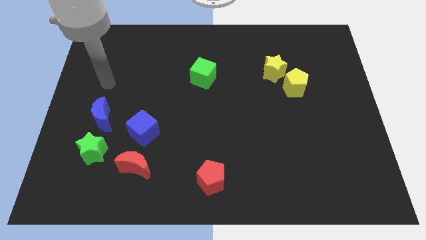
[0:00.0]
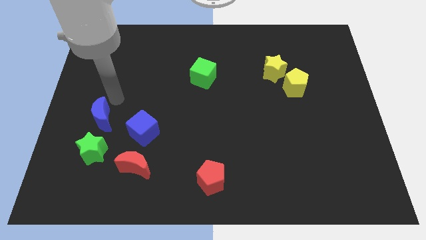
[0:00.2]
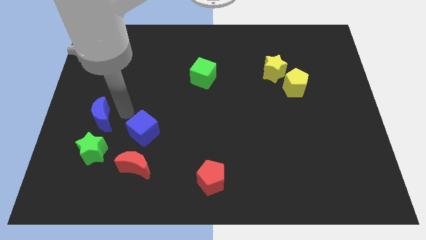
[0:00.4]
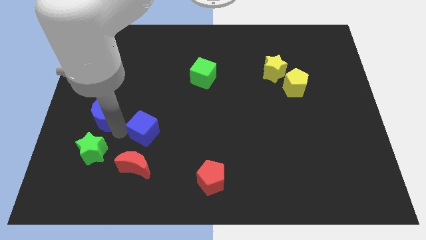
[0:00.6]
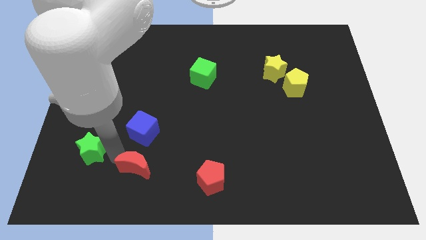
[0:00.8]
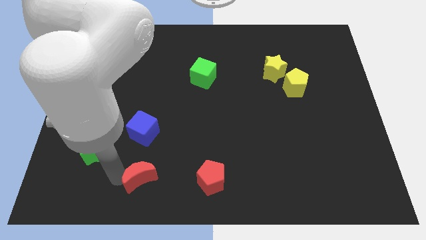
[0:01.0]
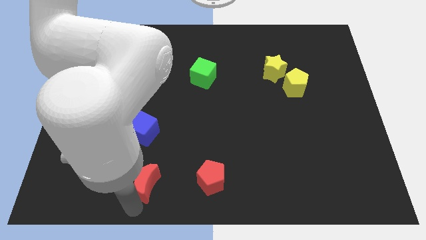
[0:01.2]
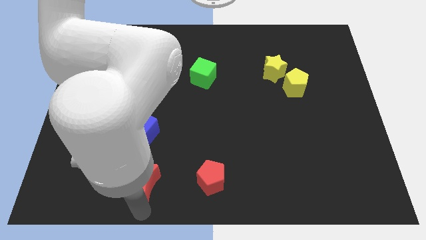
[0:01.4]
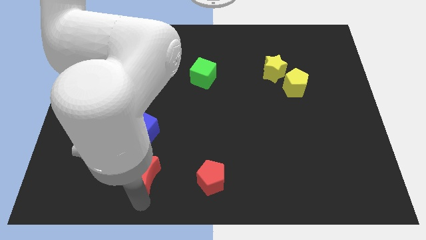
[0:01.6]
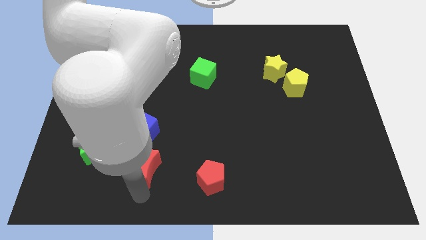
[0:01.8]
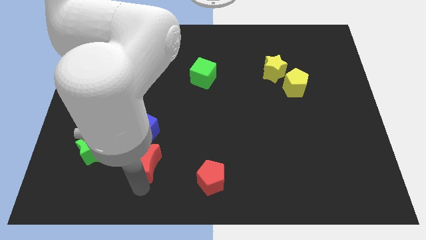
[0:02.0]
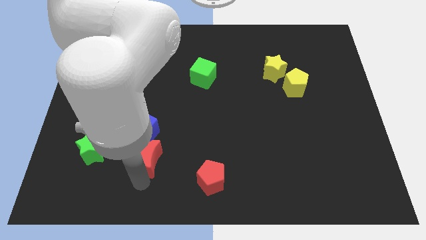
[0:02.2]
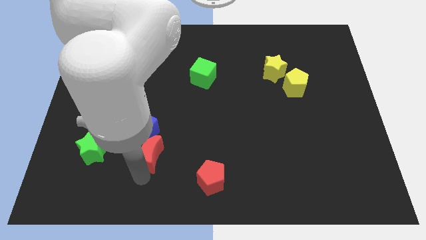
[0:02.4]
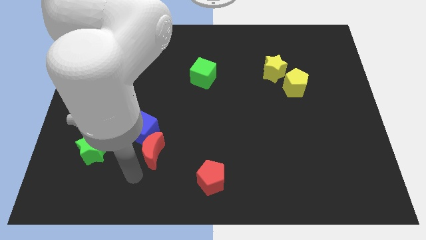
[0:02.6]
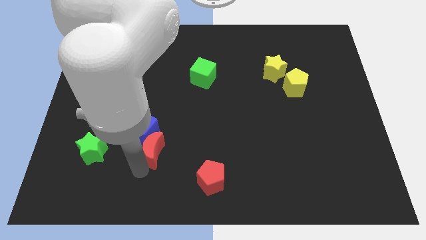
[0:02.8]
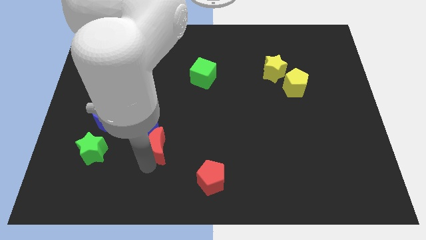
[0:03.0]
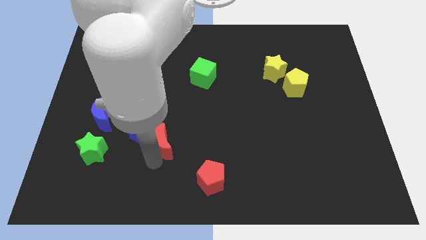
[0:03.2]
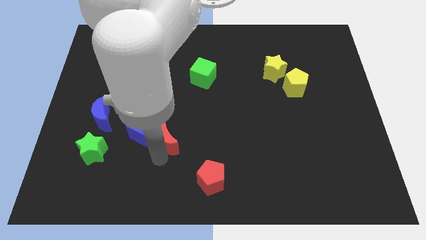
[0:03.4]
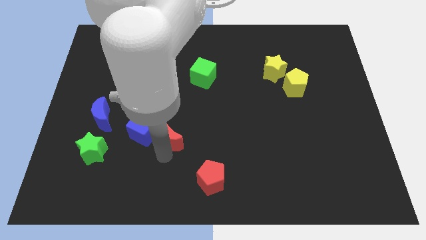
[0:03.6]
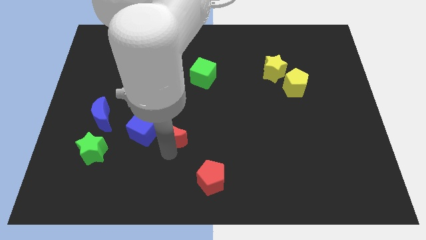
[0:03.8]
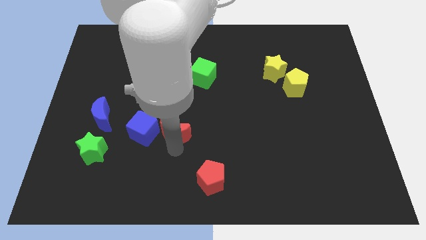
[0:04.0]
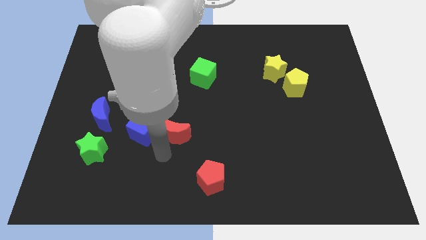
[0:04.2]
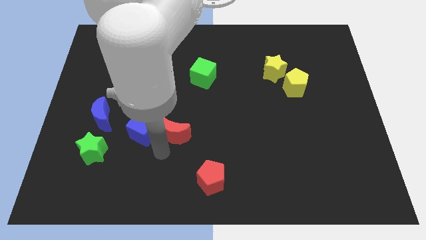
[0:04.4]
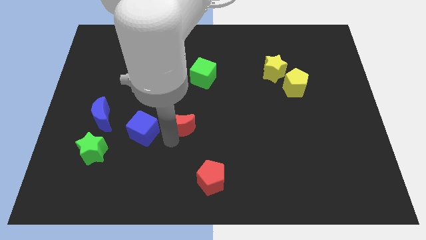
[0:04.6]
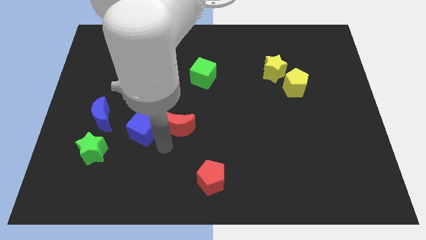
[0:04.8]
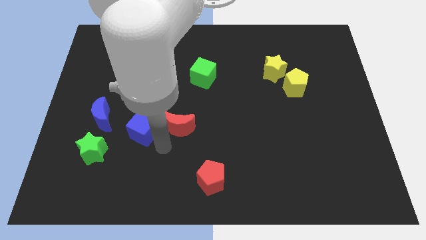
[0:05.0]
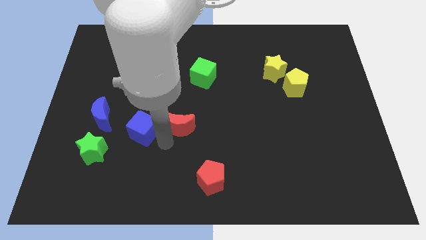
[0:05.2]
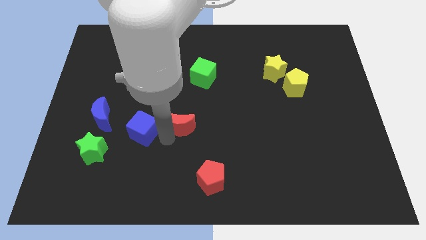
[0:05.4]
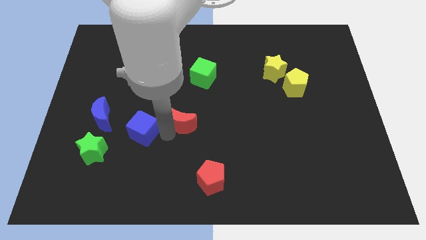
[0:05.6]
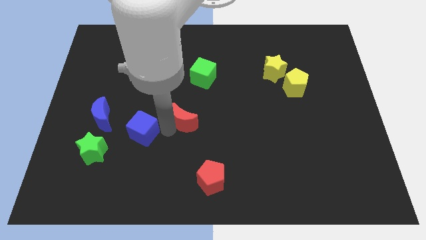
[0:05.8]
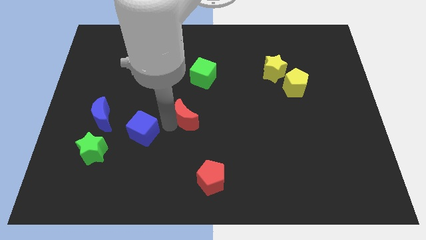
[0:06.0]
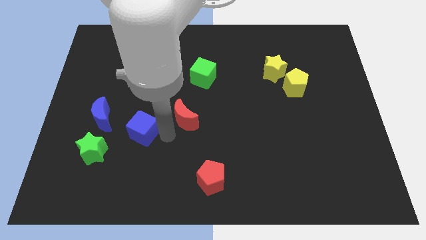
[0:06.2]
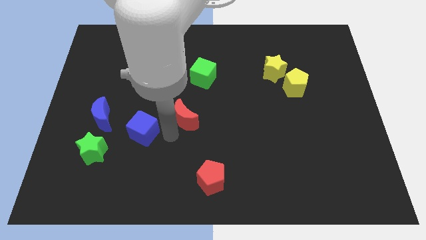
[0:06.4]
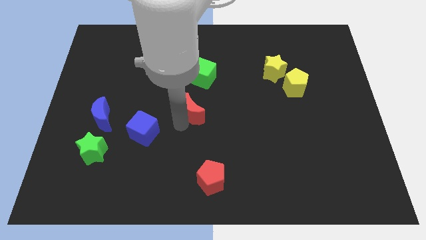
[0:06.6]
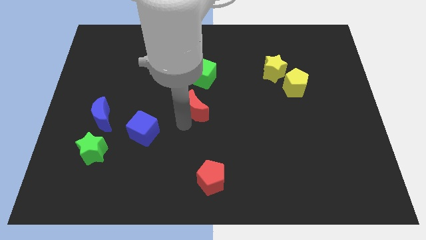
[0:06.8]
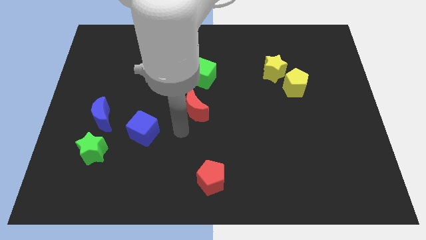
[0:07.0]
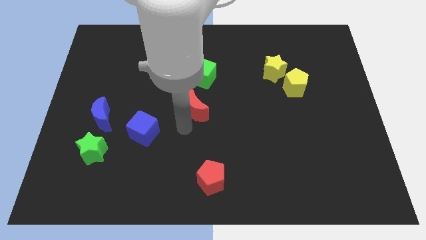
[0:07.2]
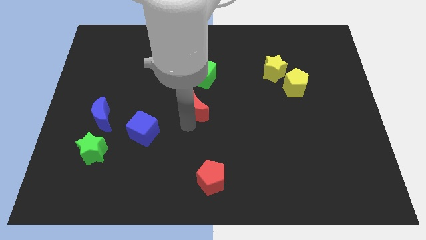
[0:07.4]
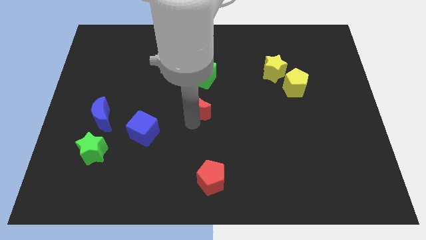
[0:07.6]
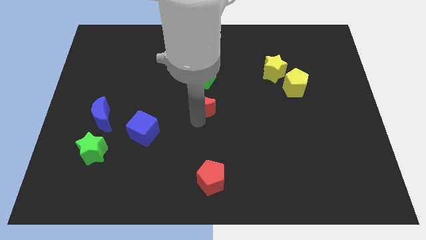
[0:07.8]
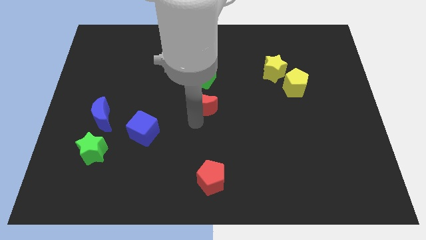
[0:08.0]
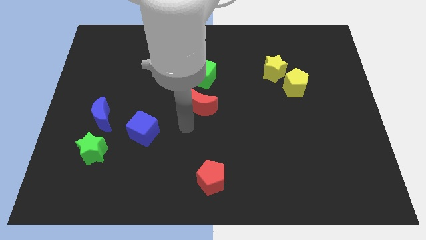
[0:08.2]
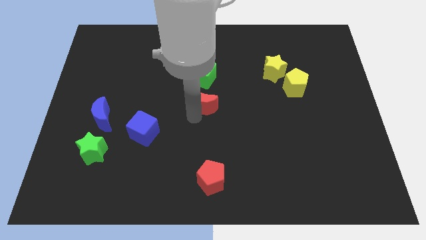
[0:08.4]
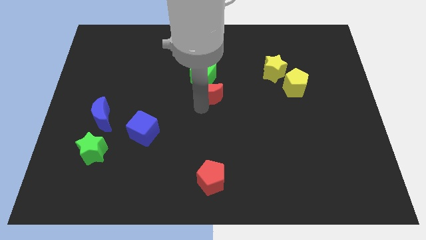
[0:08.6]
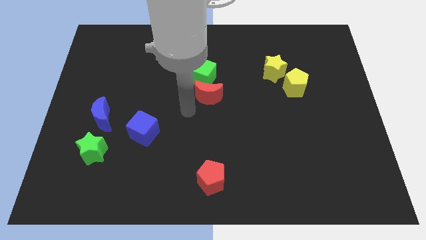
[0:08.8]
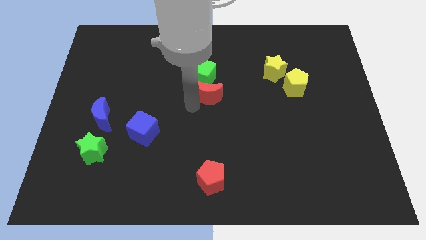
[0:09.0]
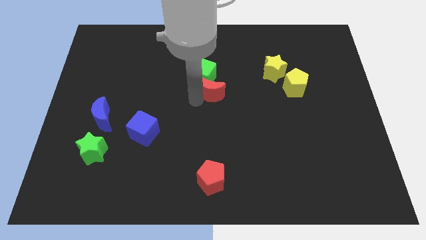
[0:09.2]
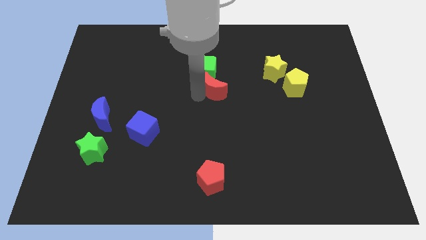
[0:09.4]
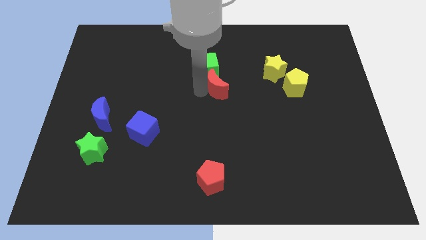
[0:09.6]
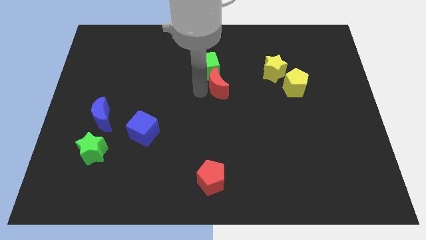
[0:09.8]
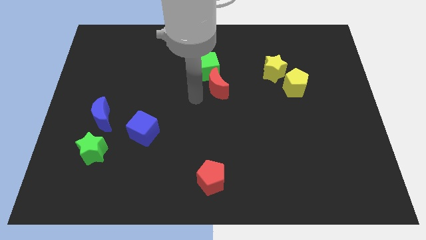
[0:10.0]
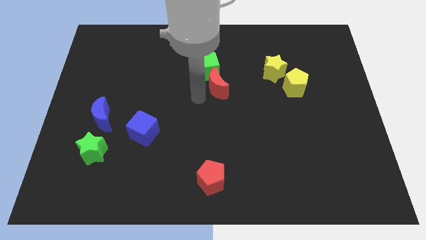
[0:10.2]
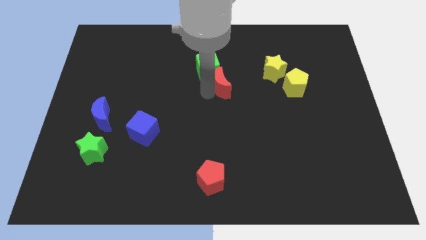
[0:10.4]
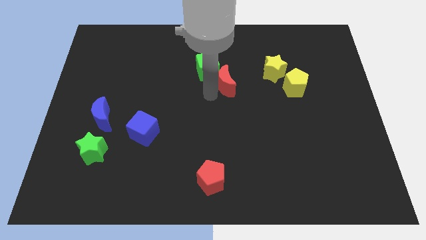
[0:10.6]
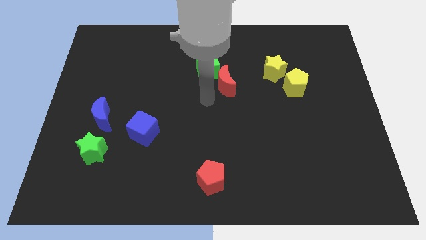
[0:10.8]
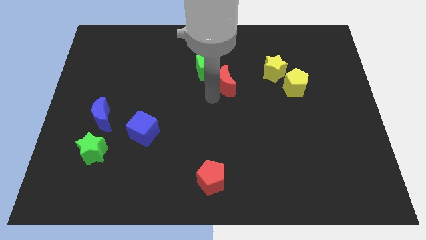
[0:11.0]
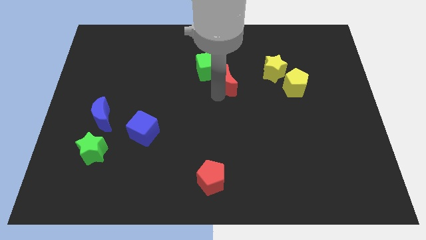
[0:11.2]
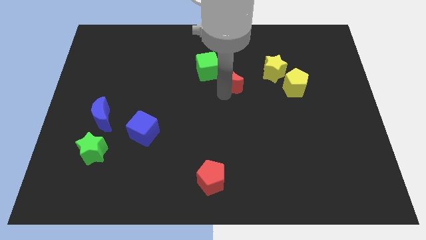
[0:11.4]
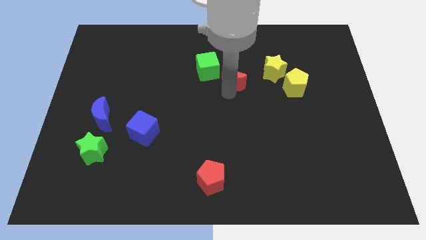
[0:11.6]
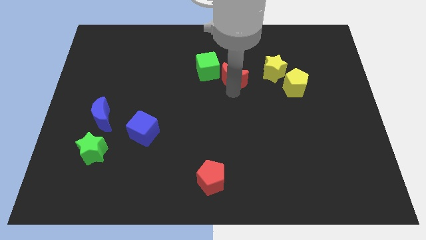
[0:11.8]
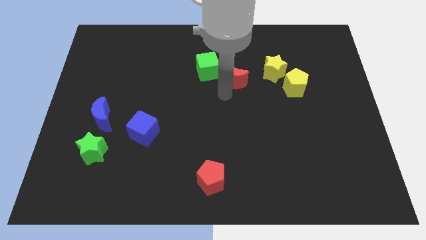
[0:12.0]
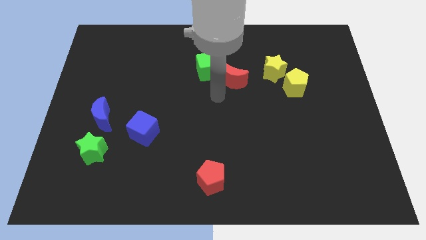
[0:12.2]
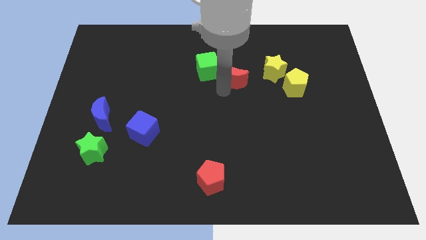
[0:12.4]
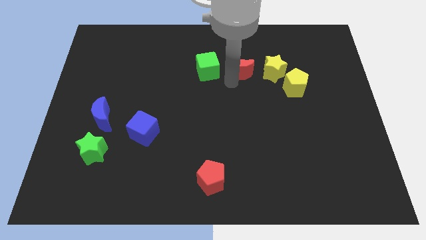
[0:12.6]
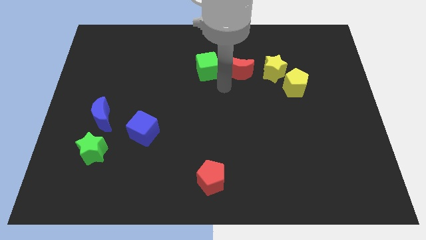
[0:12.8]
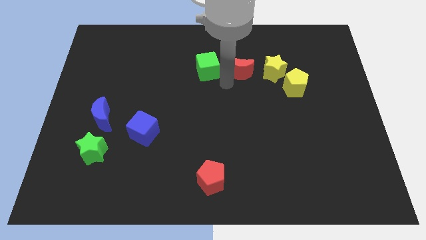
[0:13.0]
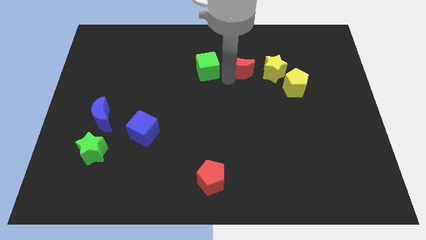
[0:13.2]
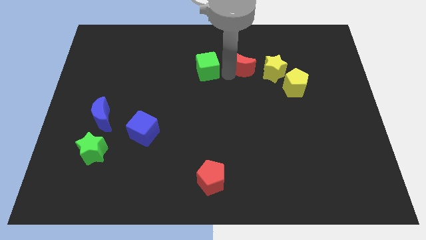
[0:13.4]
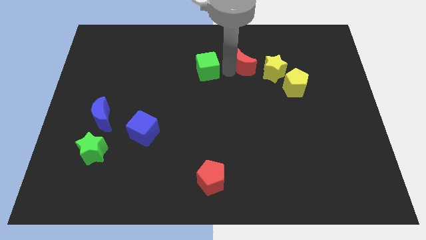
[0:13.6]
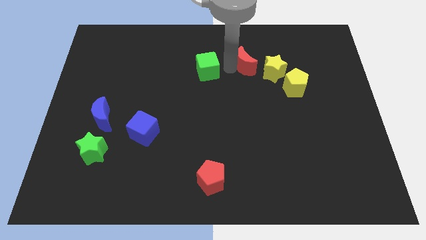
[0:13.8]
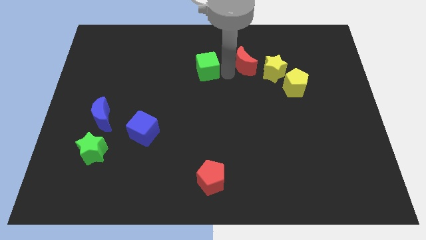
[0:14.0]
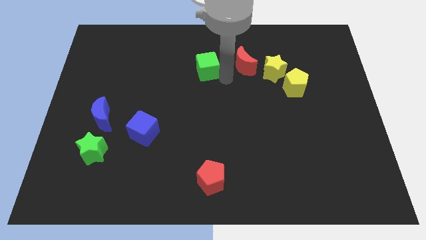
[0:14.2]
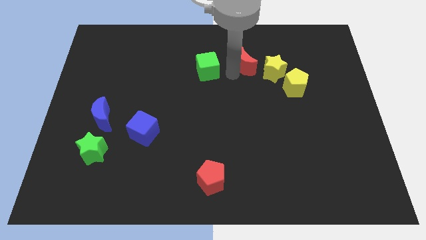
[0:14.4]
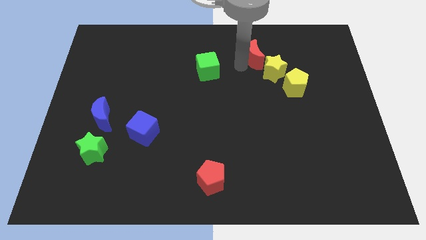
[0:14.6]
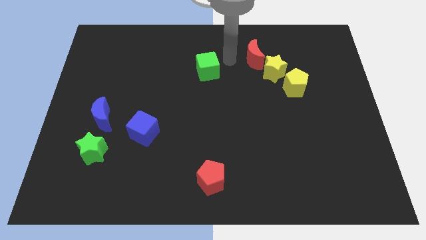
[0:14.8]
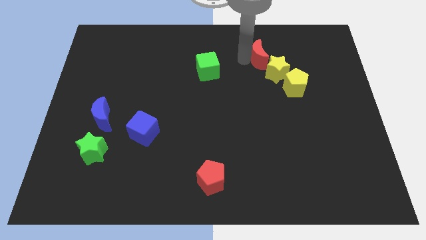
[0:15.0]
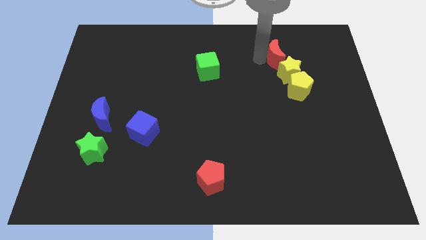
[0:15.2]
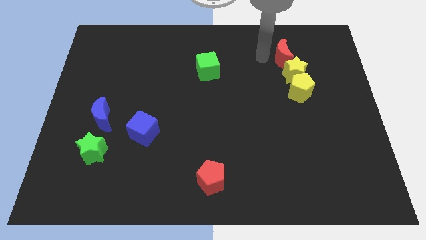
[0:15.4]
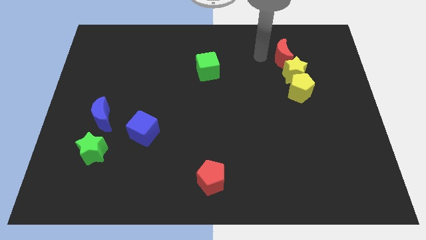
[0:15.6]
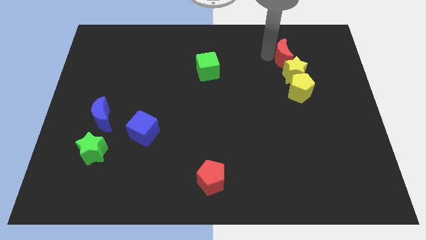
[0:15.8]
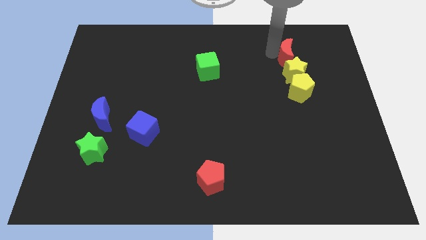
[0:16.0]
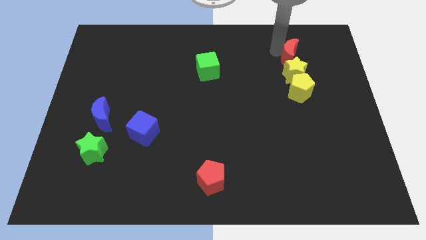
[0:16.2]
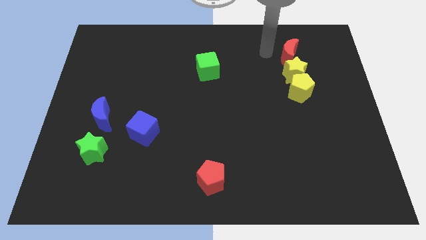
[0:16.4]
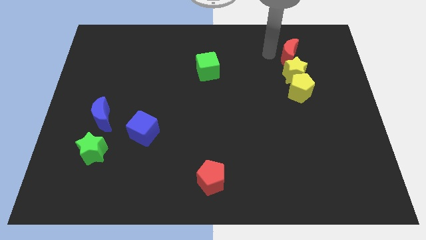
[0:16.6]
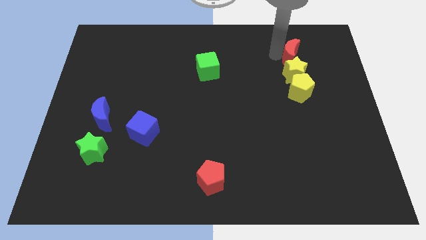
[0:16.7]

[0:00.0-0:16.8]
slide the red moon diagonally up and to the right of the yellow star

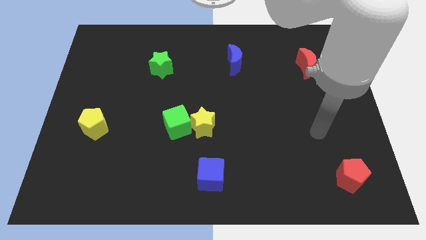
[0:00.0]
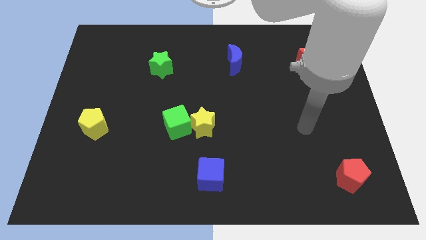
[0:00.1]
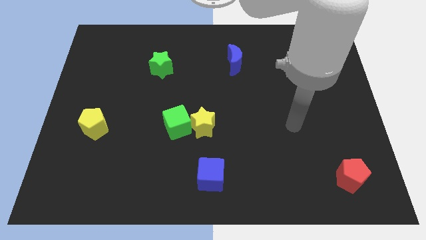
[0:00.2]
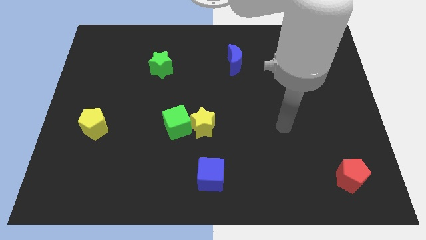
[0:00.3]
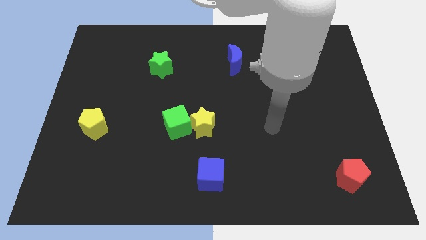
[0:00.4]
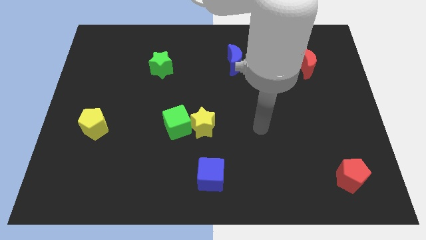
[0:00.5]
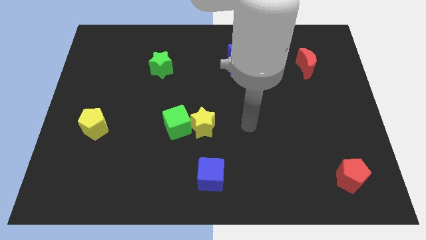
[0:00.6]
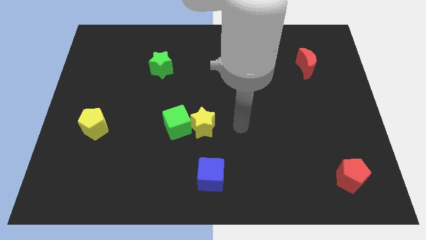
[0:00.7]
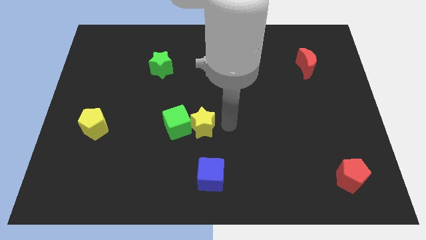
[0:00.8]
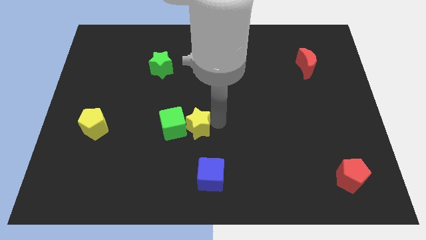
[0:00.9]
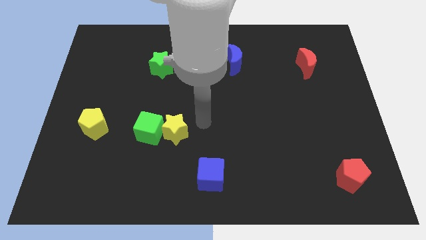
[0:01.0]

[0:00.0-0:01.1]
push the green cube to the right side of the yellow pentagon
